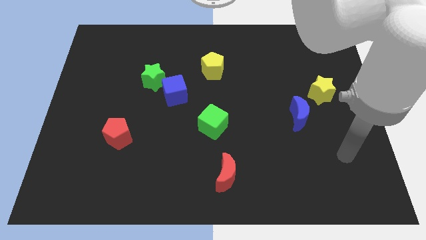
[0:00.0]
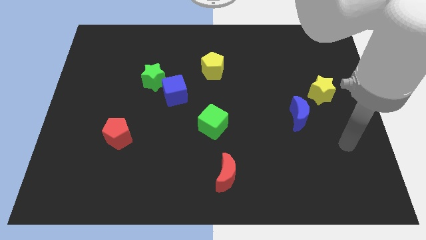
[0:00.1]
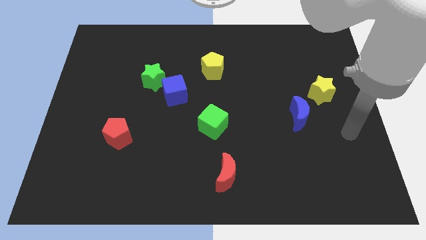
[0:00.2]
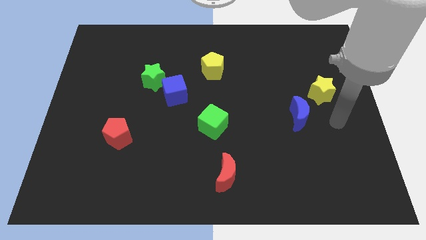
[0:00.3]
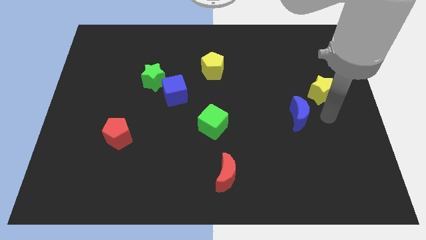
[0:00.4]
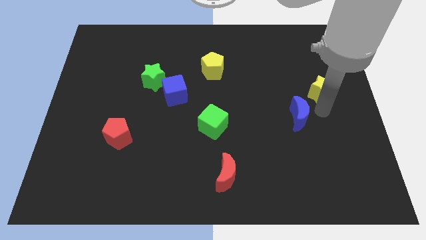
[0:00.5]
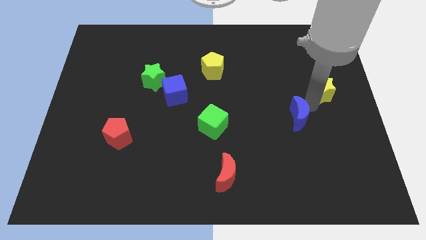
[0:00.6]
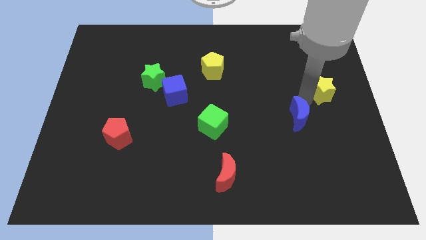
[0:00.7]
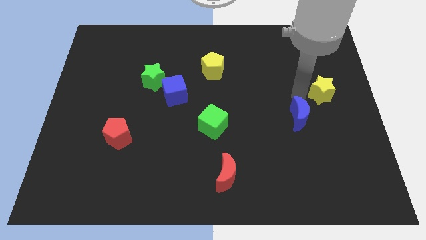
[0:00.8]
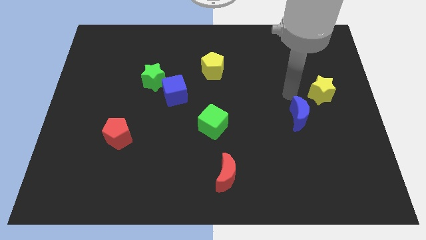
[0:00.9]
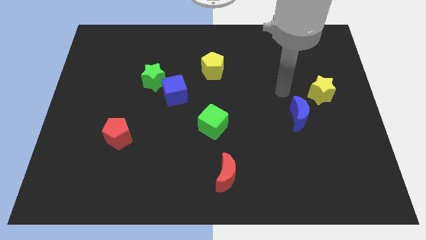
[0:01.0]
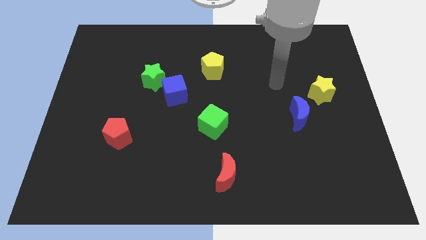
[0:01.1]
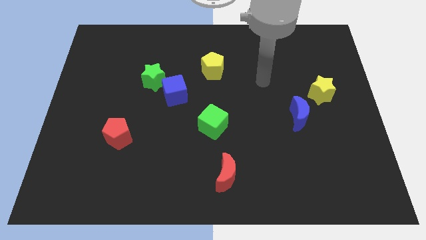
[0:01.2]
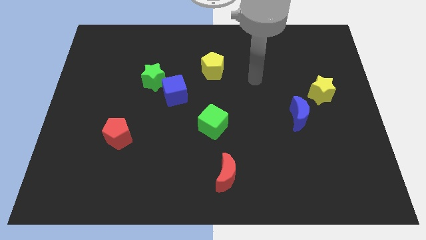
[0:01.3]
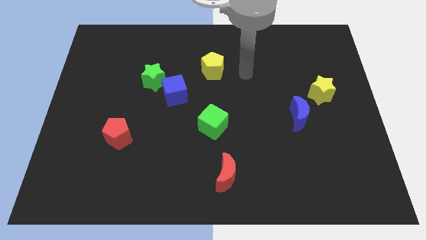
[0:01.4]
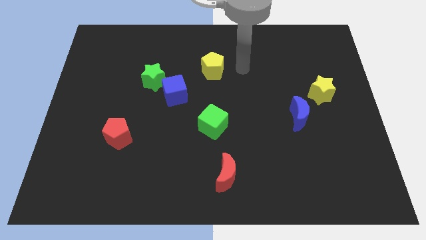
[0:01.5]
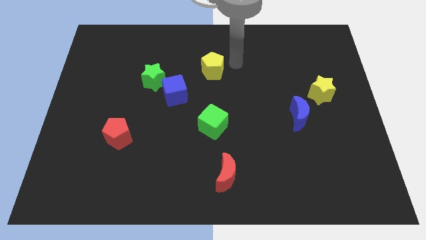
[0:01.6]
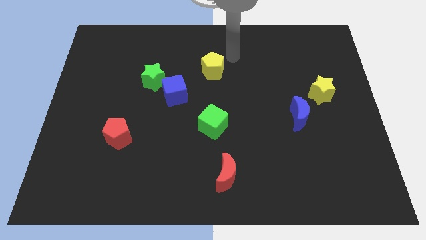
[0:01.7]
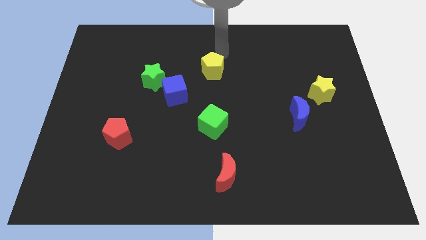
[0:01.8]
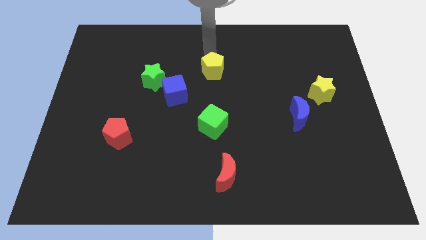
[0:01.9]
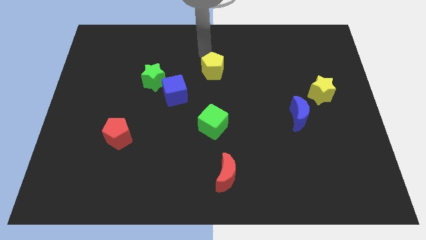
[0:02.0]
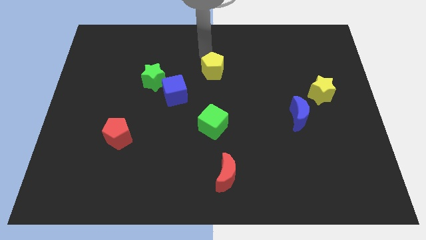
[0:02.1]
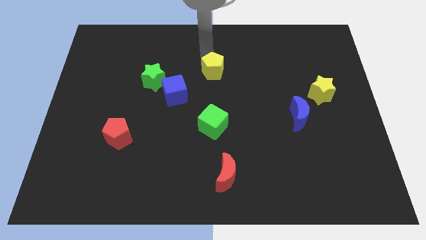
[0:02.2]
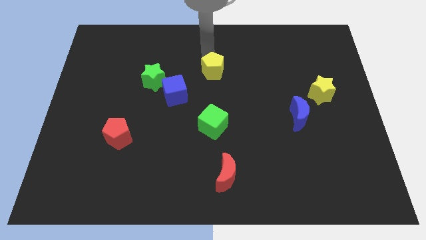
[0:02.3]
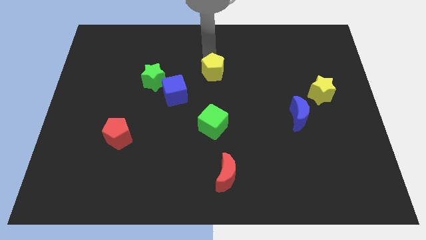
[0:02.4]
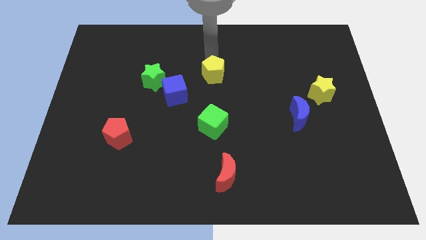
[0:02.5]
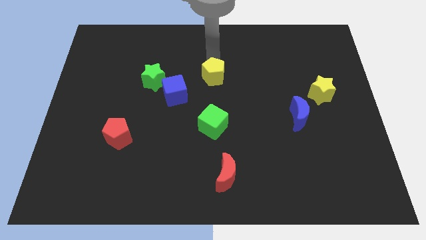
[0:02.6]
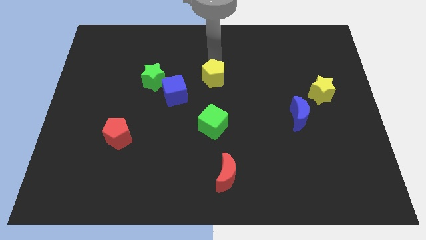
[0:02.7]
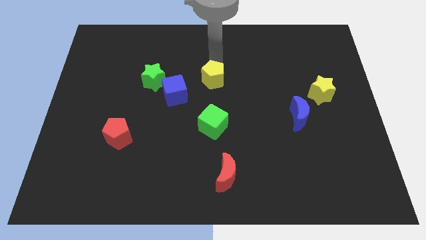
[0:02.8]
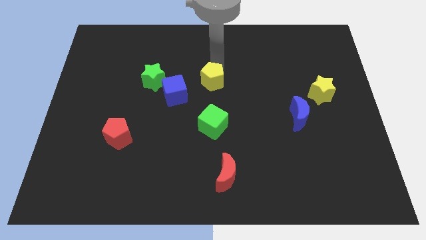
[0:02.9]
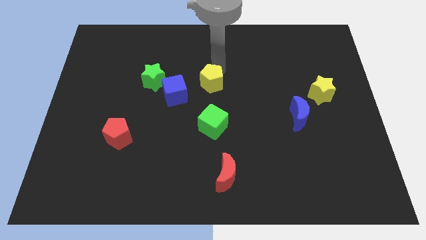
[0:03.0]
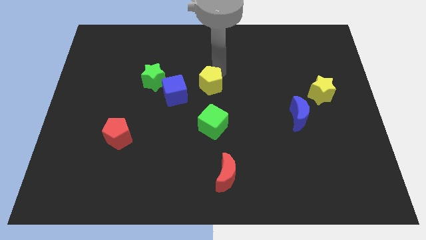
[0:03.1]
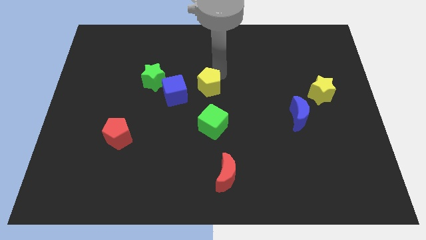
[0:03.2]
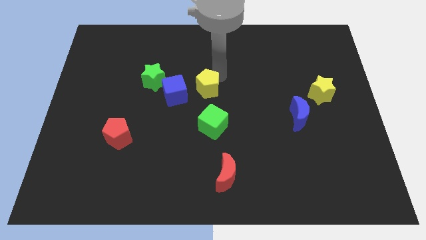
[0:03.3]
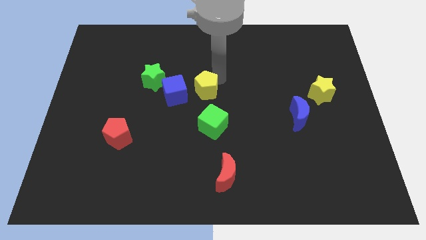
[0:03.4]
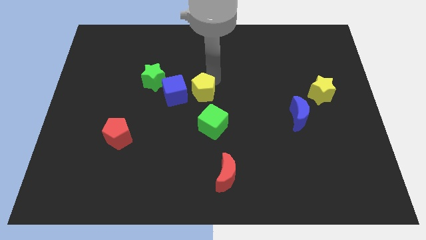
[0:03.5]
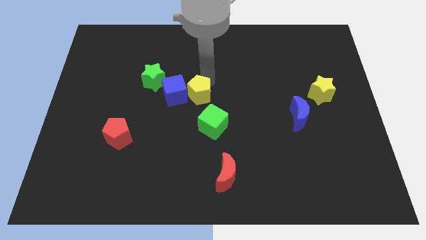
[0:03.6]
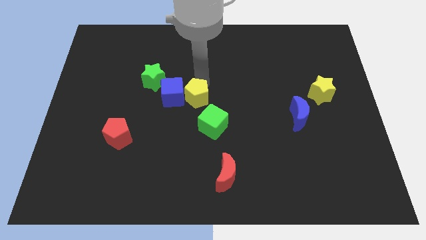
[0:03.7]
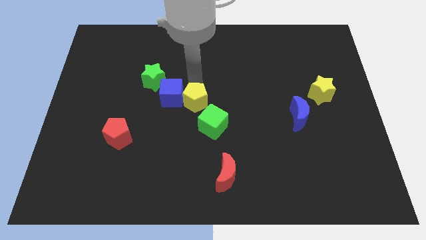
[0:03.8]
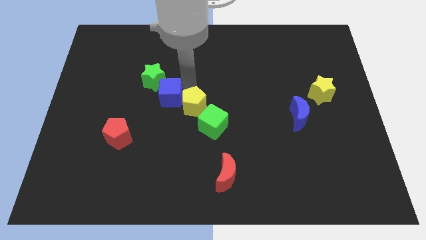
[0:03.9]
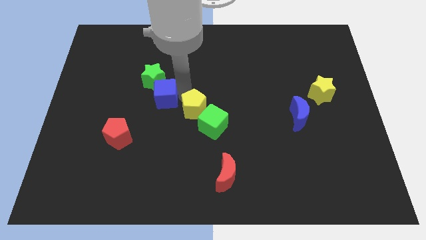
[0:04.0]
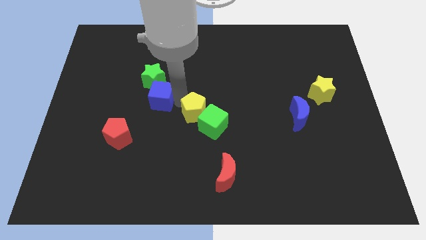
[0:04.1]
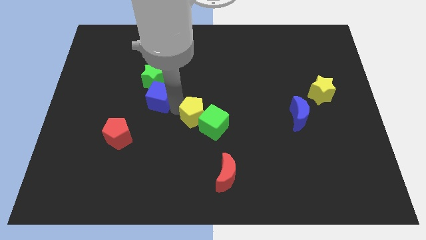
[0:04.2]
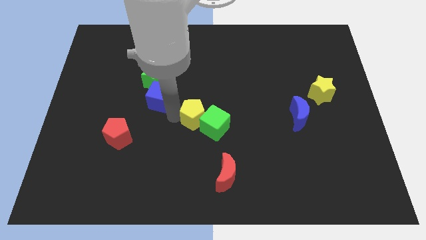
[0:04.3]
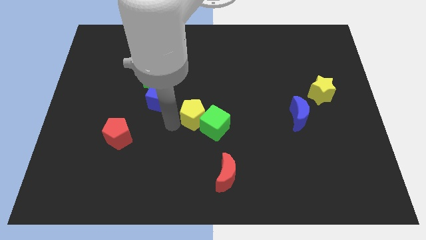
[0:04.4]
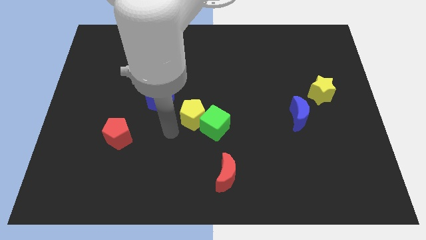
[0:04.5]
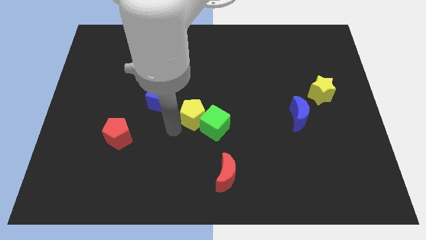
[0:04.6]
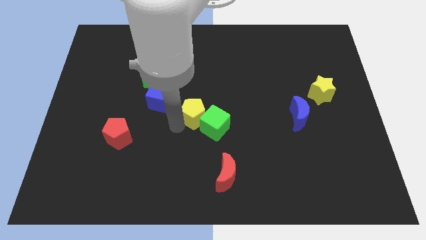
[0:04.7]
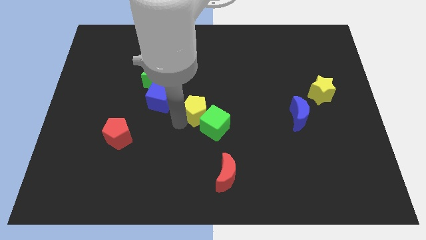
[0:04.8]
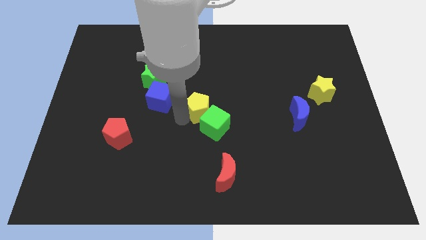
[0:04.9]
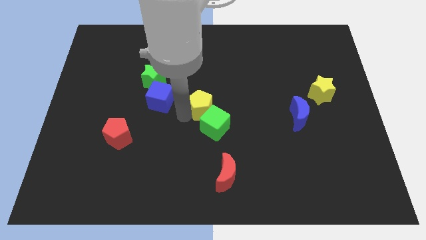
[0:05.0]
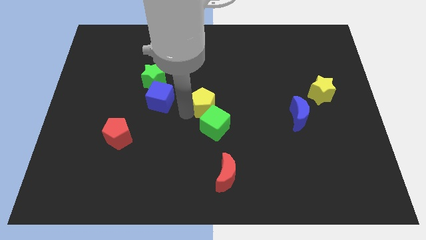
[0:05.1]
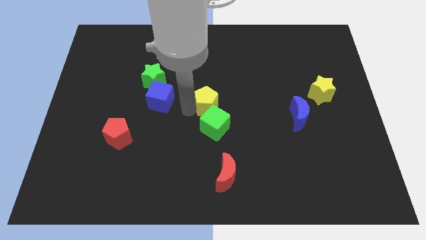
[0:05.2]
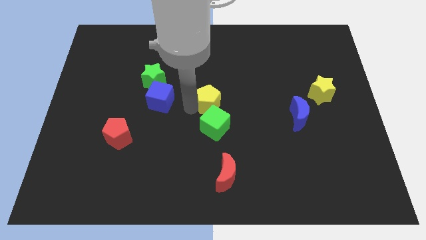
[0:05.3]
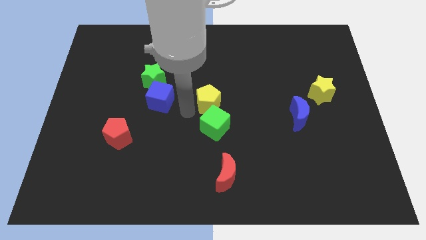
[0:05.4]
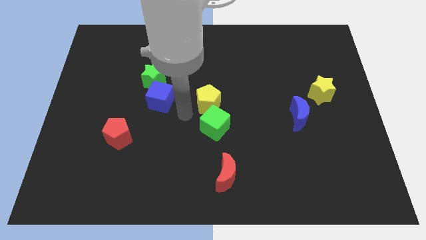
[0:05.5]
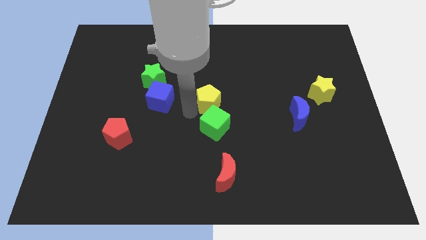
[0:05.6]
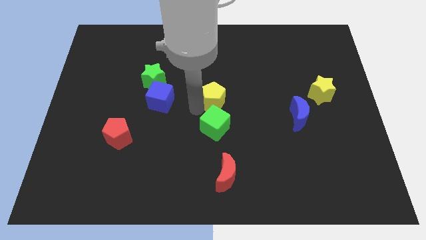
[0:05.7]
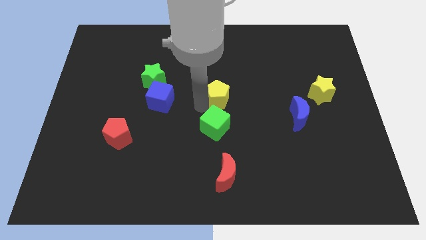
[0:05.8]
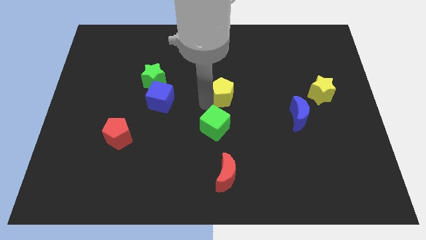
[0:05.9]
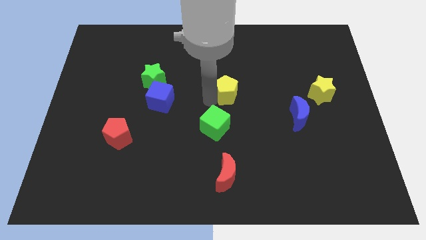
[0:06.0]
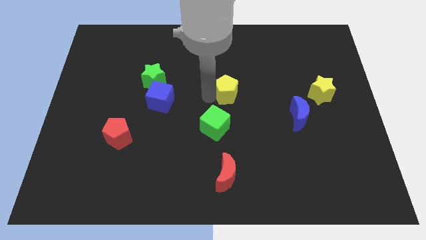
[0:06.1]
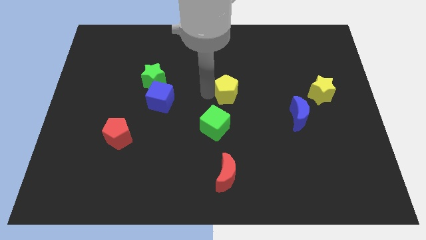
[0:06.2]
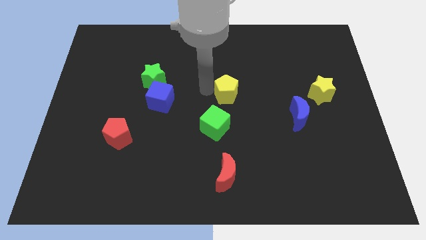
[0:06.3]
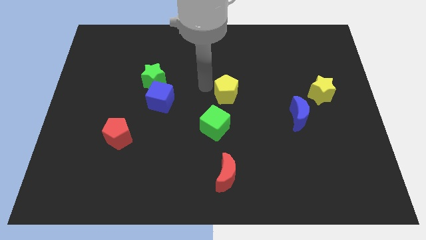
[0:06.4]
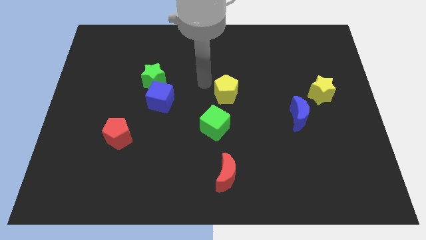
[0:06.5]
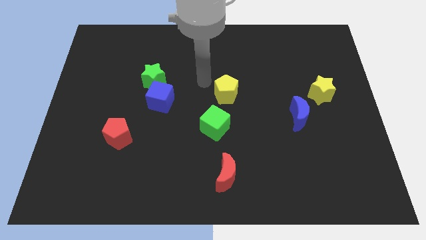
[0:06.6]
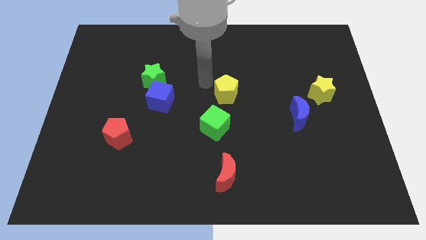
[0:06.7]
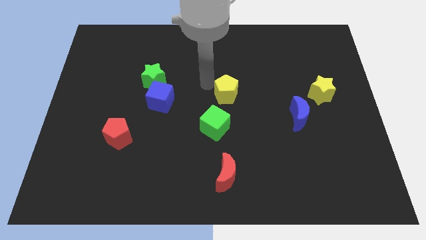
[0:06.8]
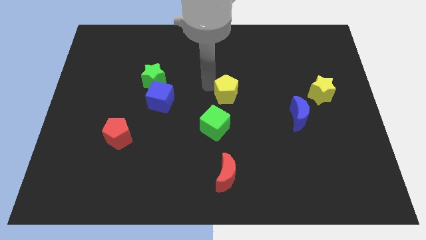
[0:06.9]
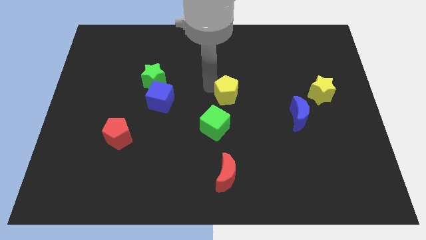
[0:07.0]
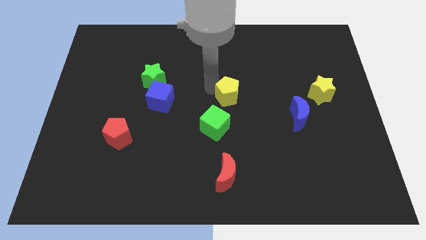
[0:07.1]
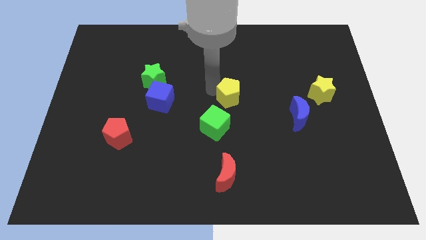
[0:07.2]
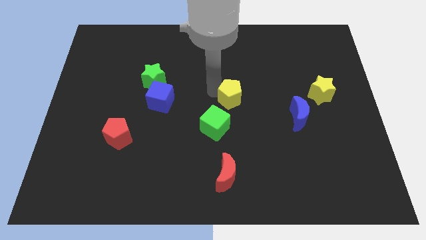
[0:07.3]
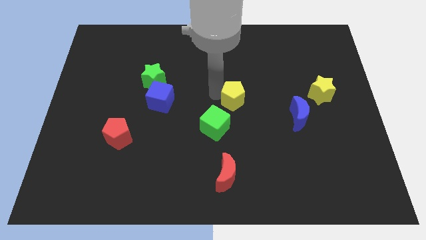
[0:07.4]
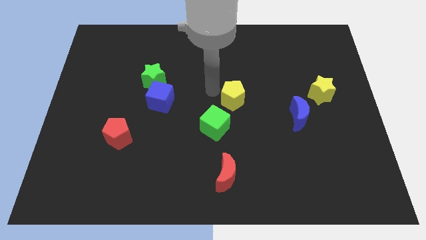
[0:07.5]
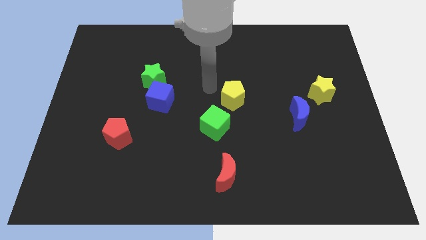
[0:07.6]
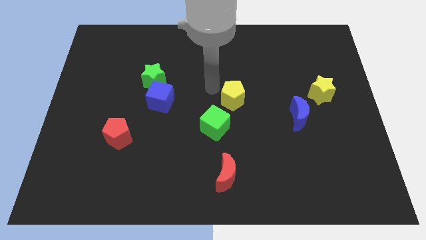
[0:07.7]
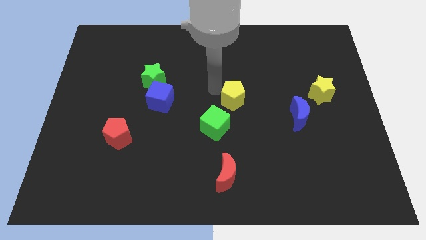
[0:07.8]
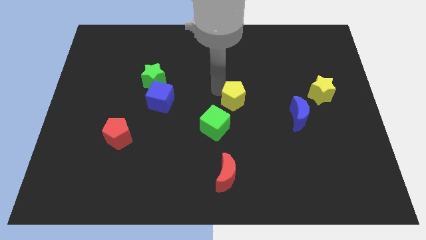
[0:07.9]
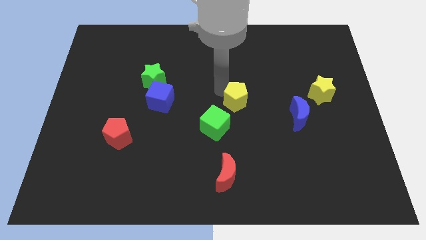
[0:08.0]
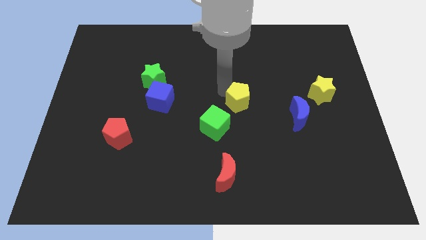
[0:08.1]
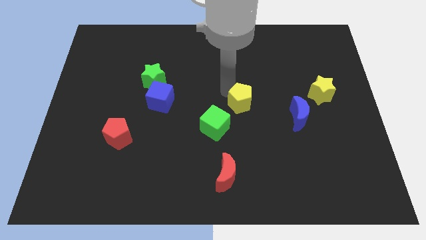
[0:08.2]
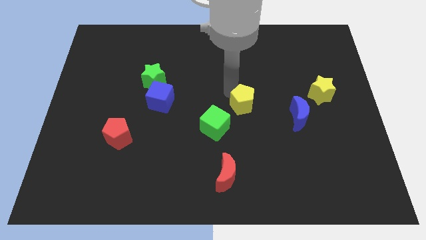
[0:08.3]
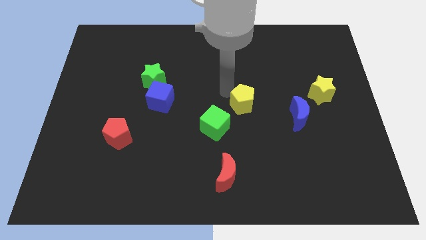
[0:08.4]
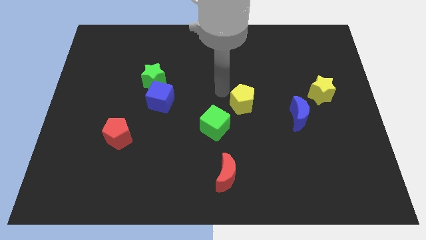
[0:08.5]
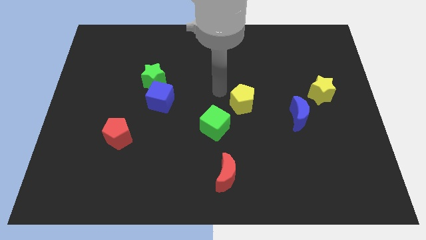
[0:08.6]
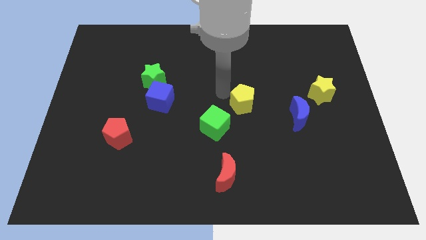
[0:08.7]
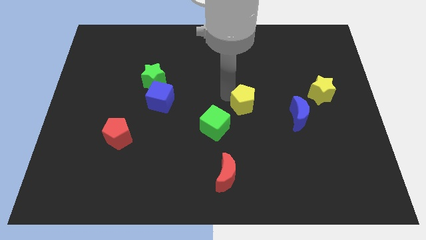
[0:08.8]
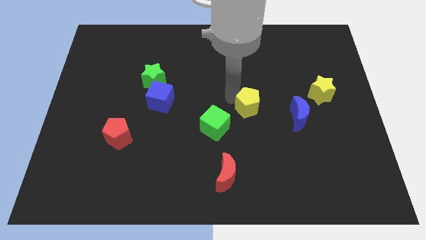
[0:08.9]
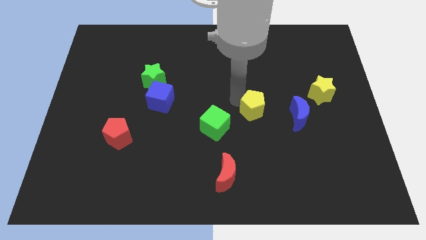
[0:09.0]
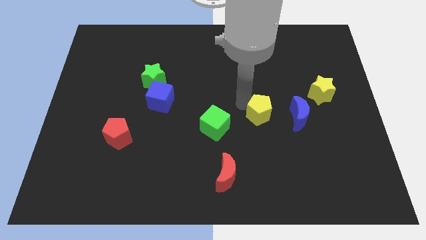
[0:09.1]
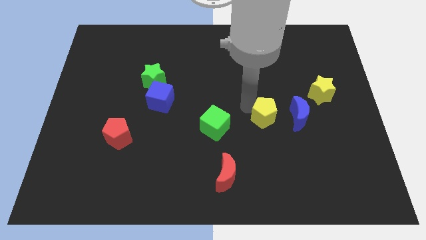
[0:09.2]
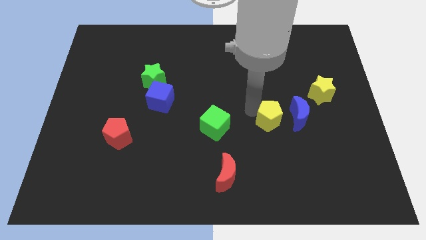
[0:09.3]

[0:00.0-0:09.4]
move the yellow pentagon down and then right
